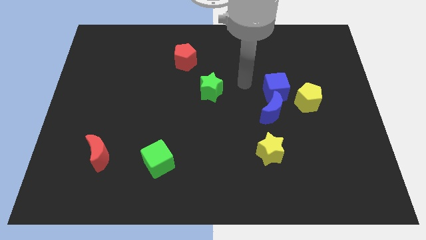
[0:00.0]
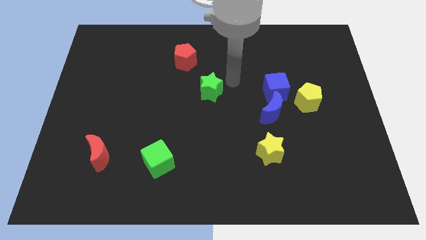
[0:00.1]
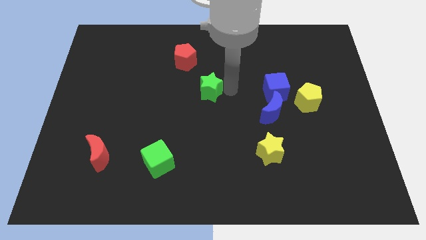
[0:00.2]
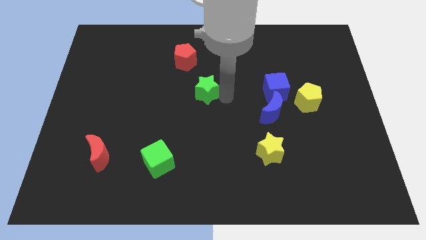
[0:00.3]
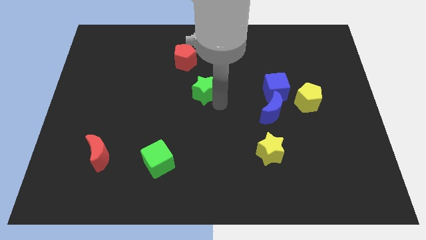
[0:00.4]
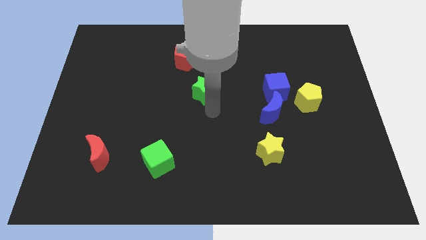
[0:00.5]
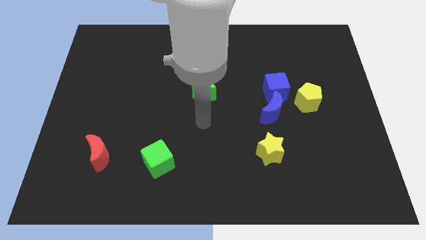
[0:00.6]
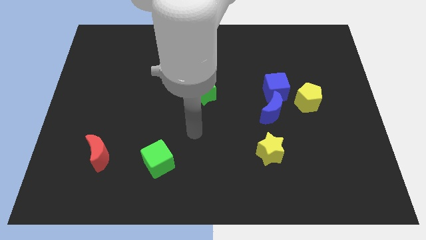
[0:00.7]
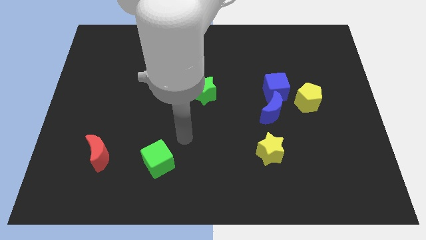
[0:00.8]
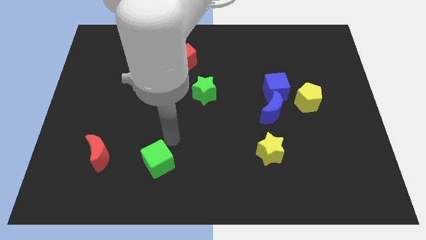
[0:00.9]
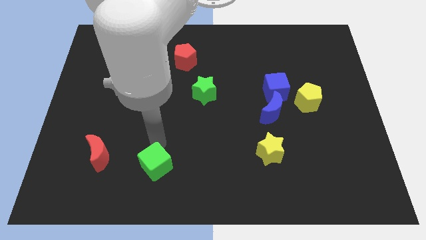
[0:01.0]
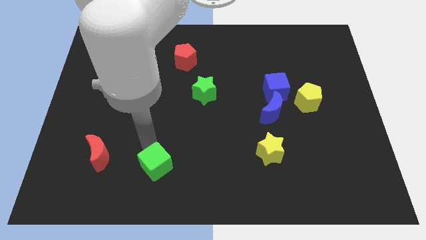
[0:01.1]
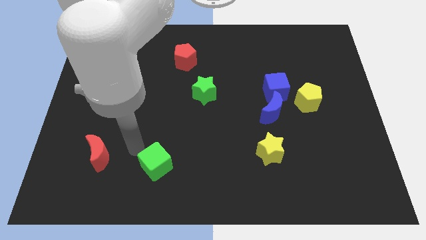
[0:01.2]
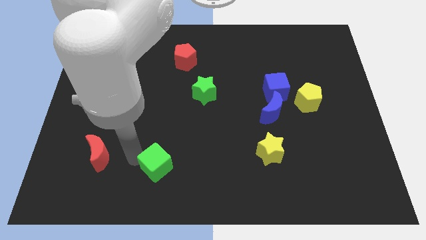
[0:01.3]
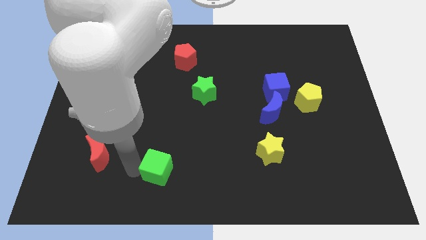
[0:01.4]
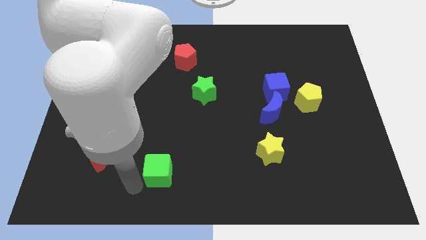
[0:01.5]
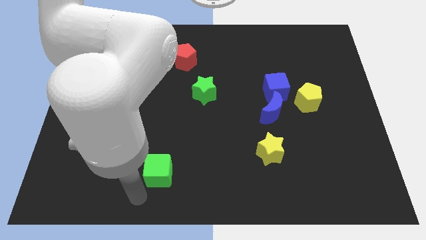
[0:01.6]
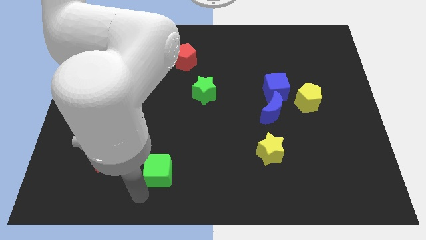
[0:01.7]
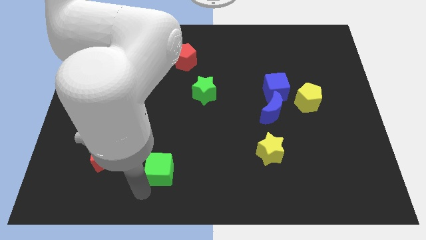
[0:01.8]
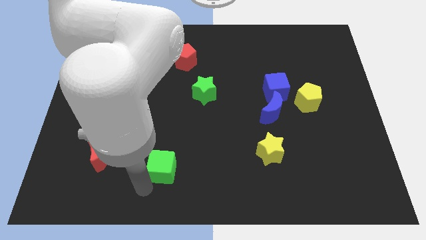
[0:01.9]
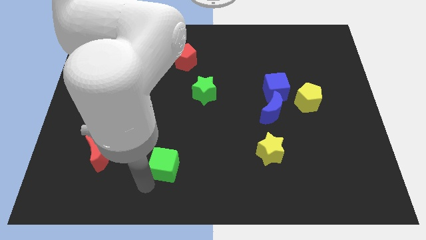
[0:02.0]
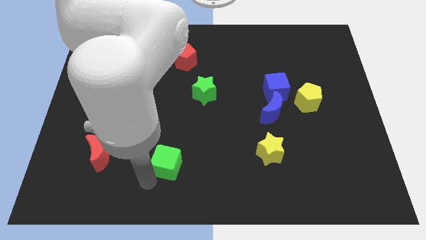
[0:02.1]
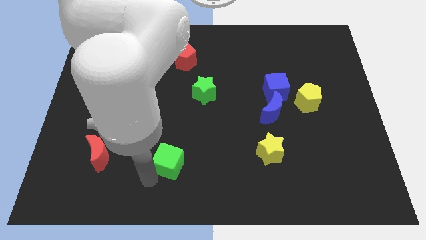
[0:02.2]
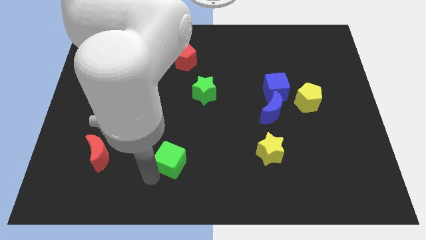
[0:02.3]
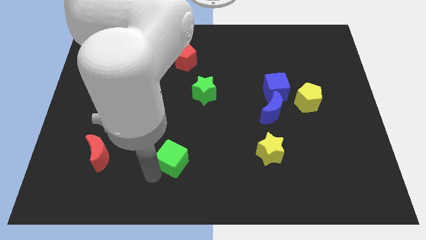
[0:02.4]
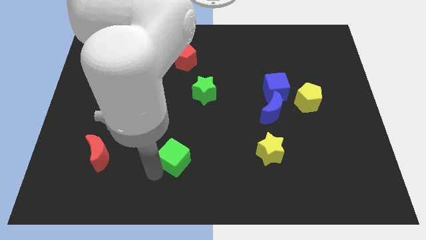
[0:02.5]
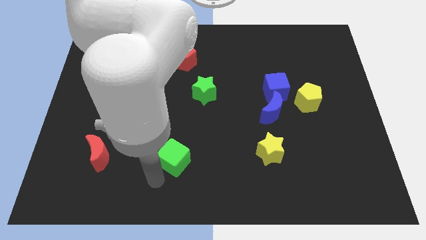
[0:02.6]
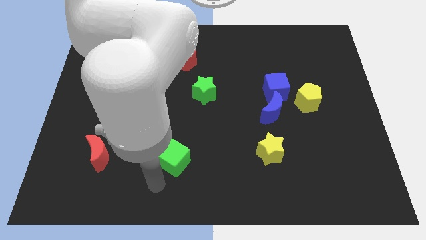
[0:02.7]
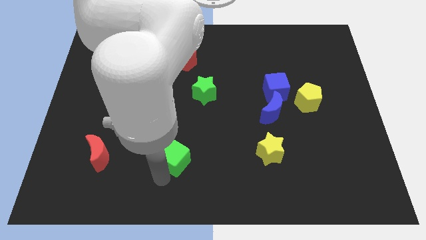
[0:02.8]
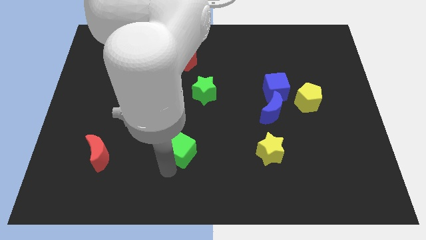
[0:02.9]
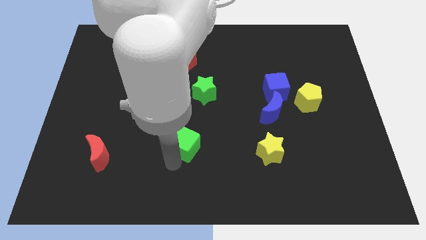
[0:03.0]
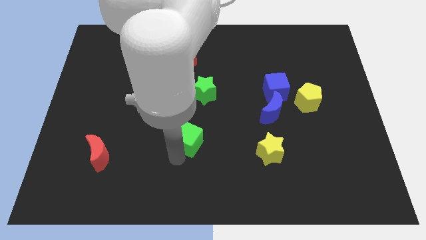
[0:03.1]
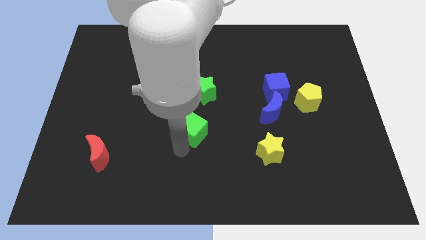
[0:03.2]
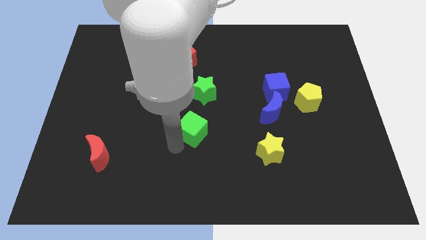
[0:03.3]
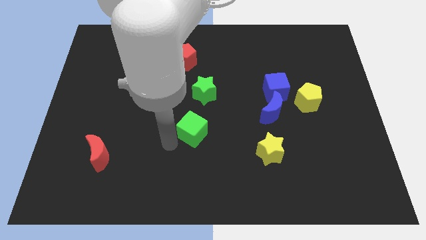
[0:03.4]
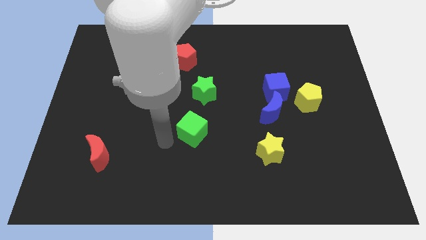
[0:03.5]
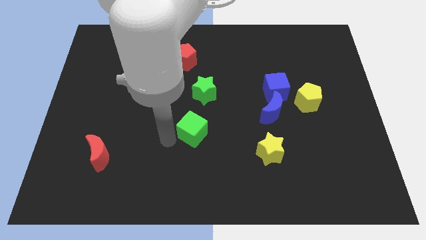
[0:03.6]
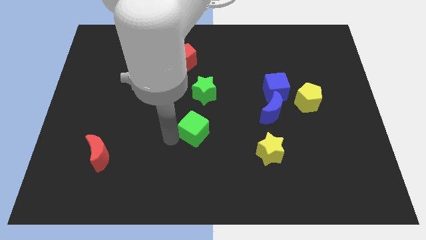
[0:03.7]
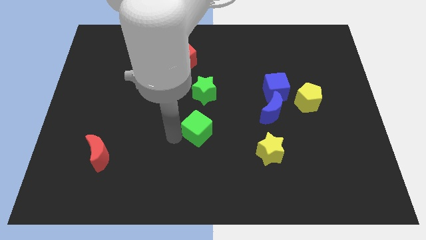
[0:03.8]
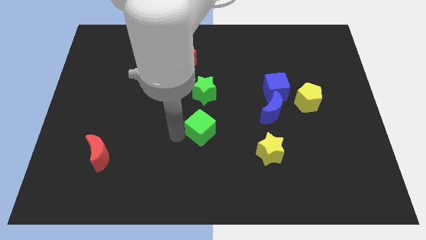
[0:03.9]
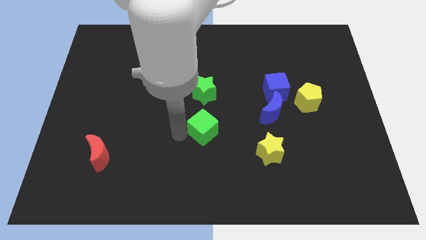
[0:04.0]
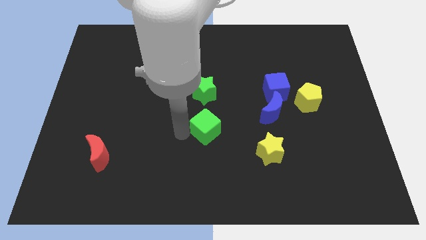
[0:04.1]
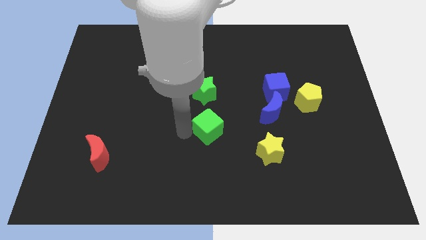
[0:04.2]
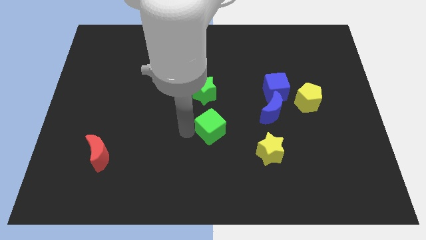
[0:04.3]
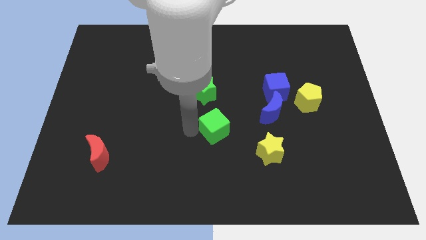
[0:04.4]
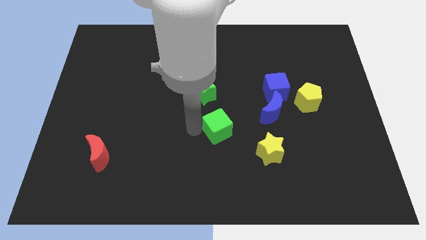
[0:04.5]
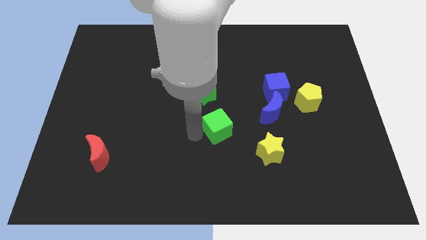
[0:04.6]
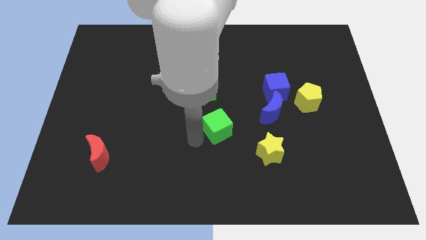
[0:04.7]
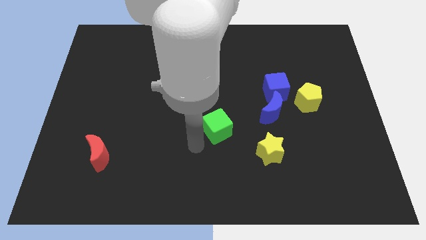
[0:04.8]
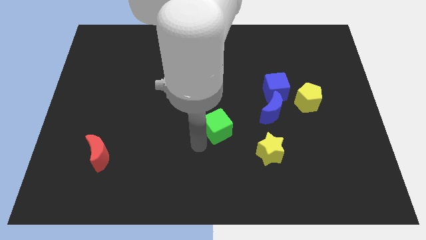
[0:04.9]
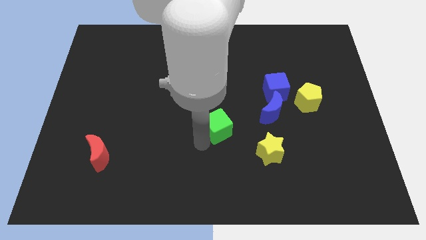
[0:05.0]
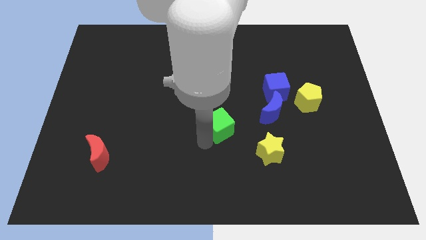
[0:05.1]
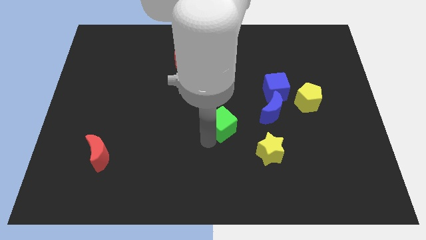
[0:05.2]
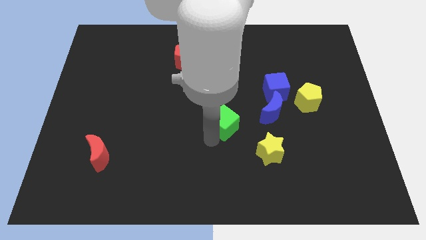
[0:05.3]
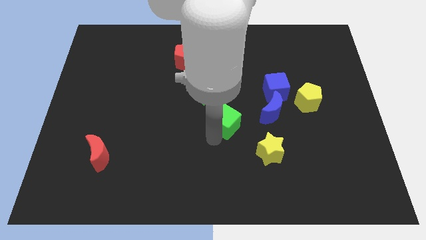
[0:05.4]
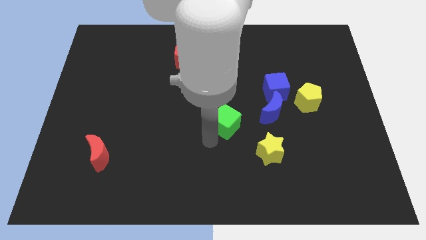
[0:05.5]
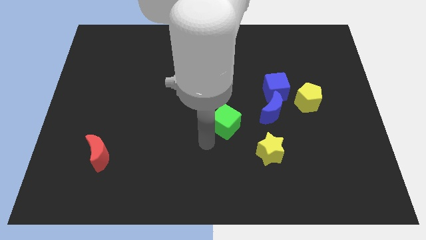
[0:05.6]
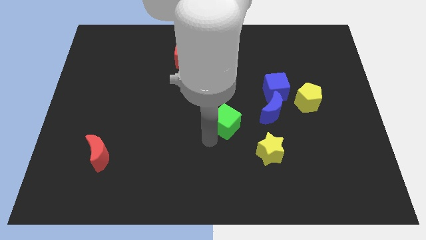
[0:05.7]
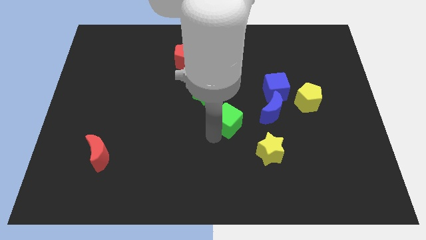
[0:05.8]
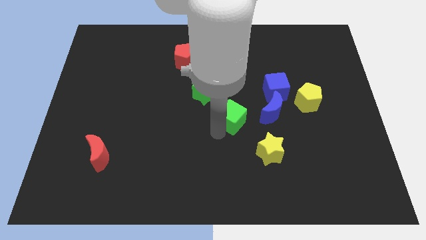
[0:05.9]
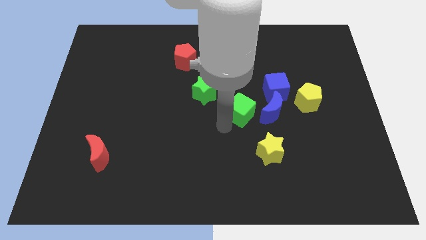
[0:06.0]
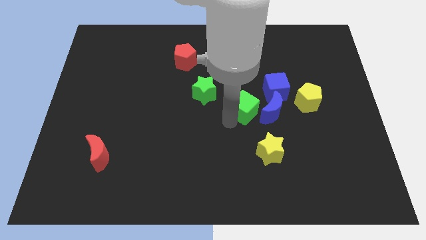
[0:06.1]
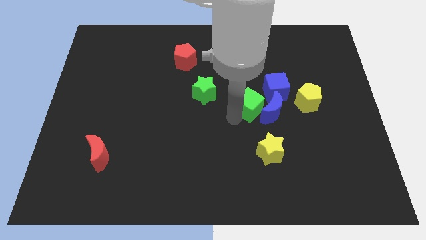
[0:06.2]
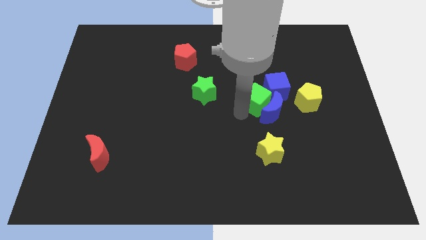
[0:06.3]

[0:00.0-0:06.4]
push the green cube towards the blue cube

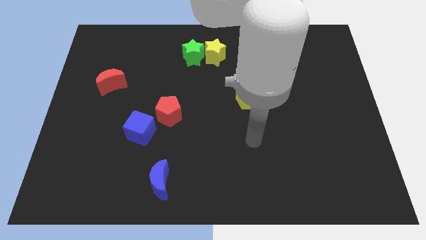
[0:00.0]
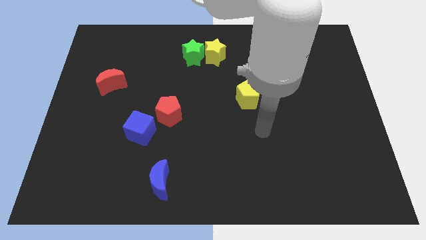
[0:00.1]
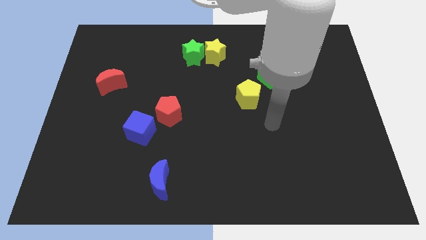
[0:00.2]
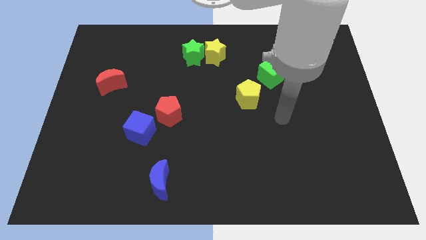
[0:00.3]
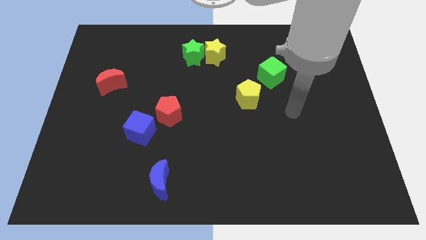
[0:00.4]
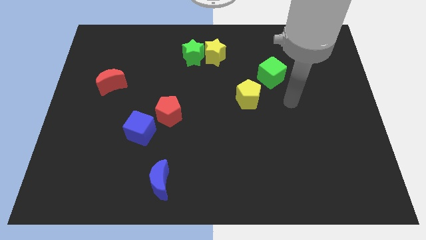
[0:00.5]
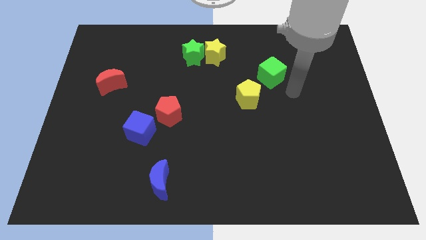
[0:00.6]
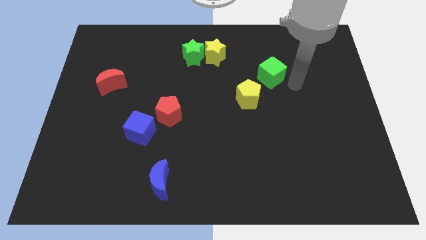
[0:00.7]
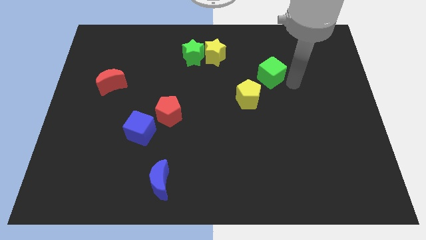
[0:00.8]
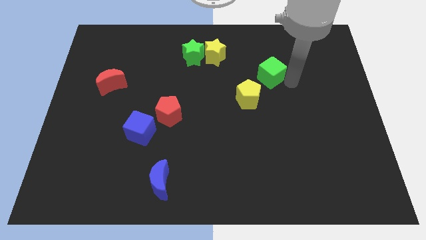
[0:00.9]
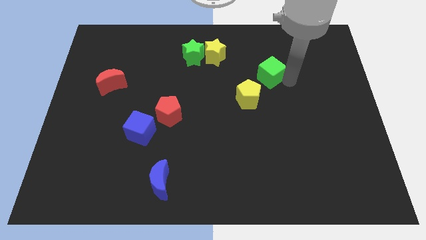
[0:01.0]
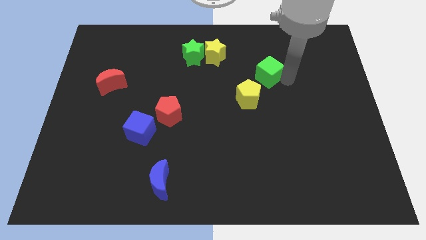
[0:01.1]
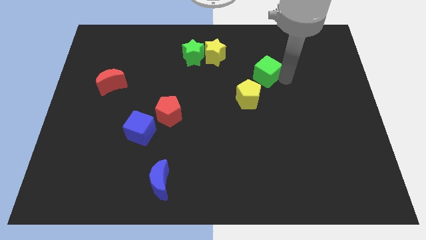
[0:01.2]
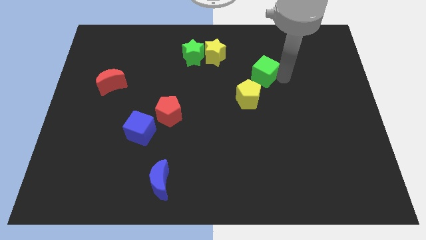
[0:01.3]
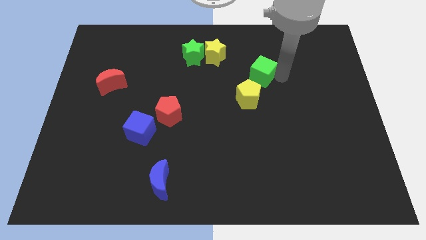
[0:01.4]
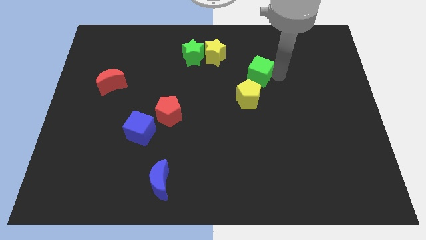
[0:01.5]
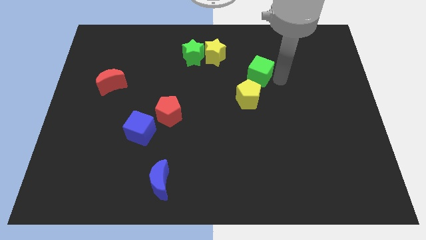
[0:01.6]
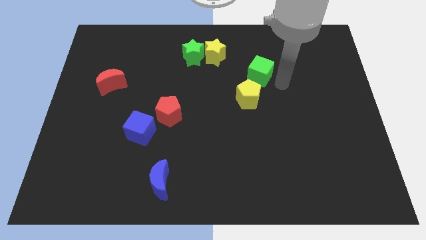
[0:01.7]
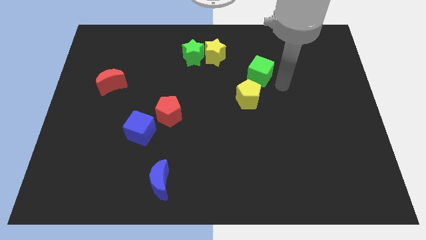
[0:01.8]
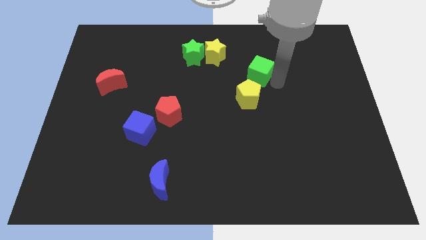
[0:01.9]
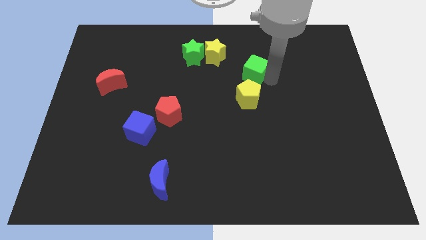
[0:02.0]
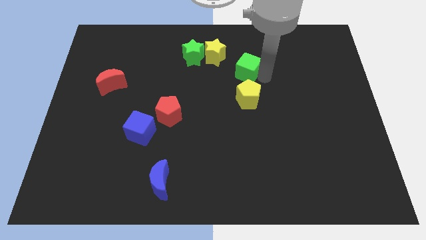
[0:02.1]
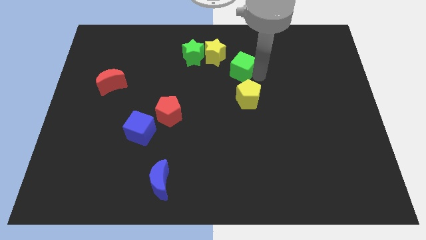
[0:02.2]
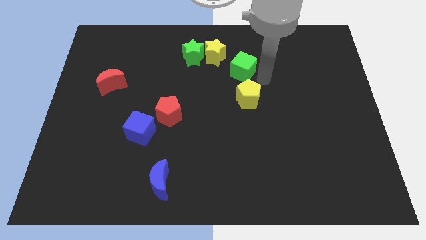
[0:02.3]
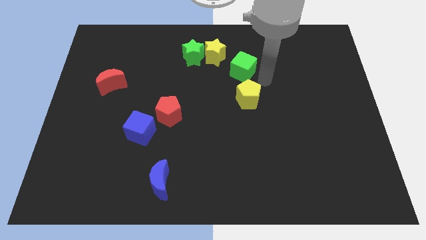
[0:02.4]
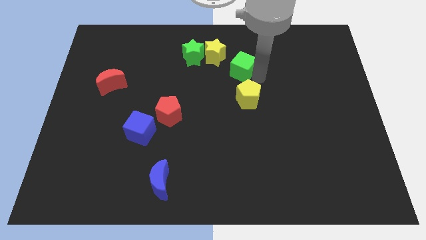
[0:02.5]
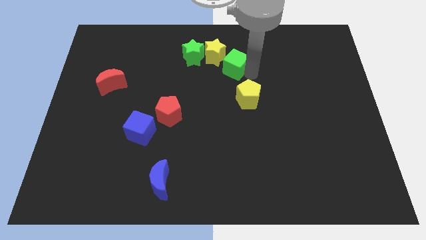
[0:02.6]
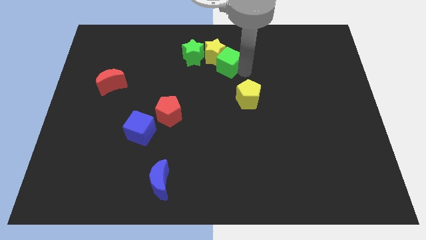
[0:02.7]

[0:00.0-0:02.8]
move the green cube next to the yellow star
